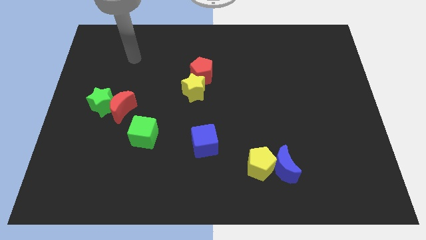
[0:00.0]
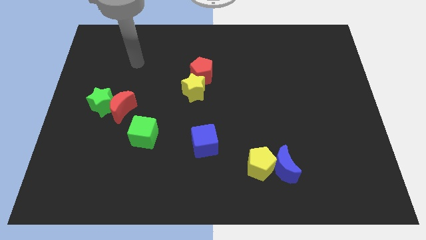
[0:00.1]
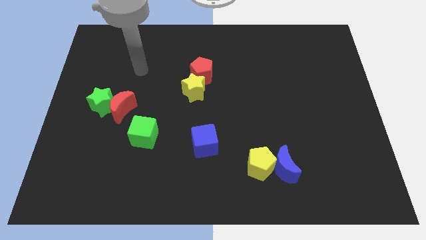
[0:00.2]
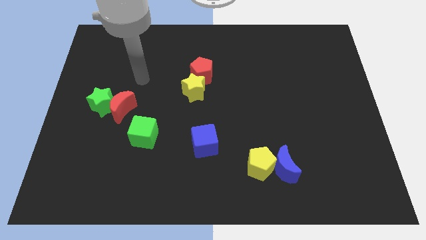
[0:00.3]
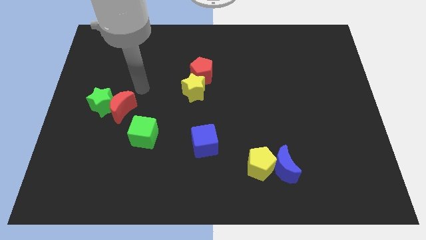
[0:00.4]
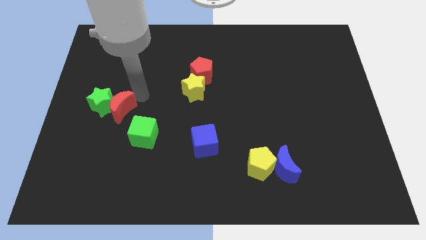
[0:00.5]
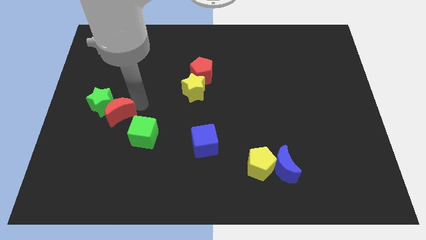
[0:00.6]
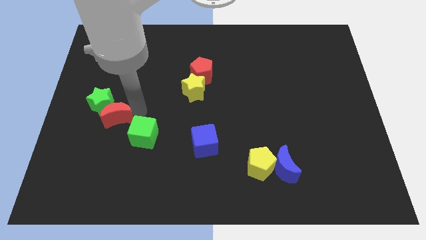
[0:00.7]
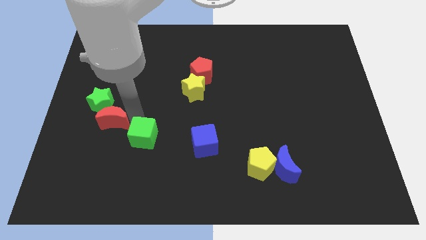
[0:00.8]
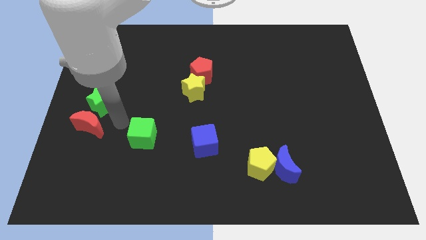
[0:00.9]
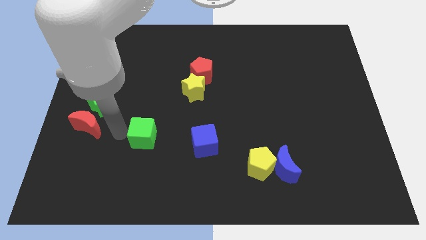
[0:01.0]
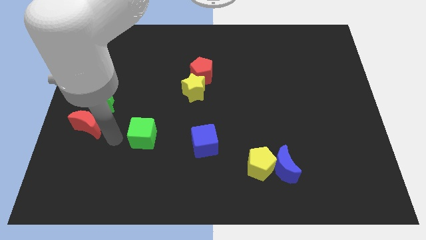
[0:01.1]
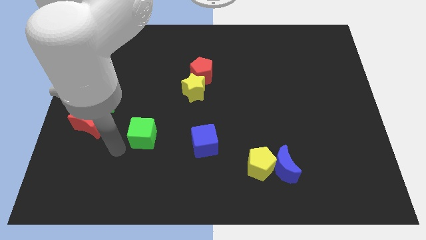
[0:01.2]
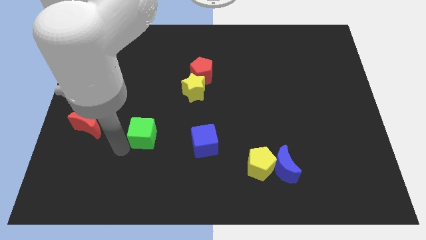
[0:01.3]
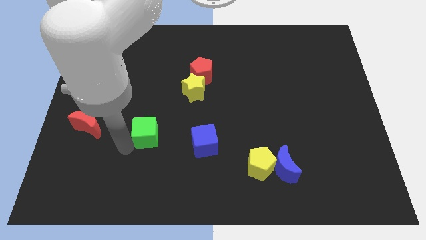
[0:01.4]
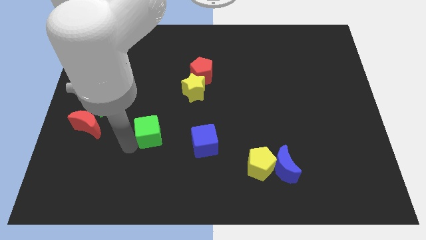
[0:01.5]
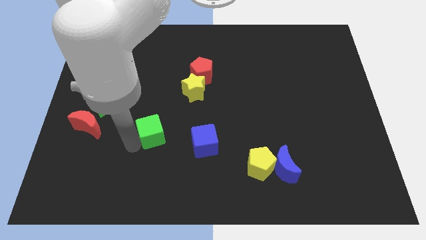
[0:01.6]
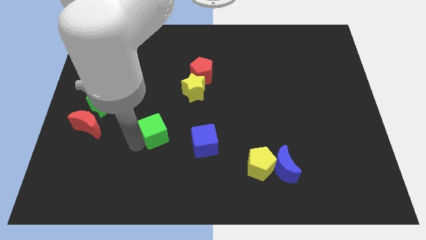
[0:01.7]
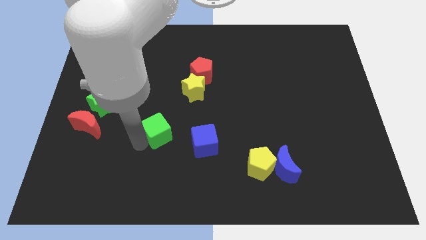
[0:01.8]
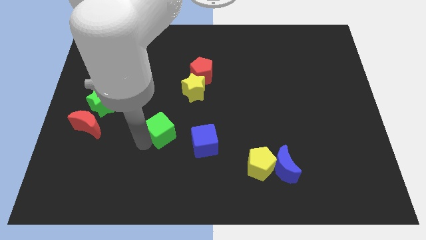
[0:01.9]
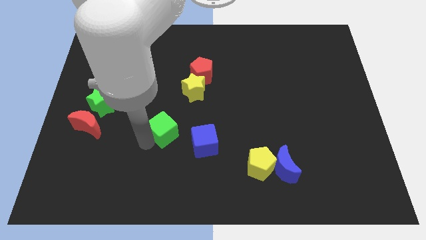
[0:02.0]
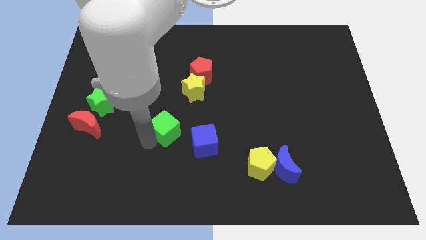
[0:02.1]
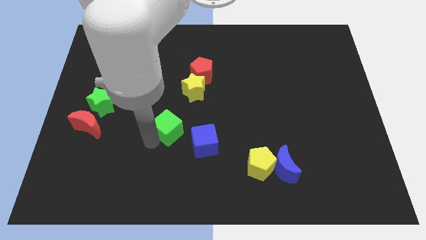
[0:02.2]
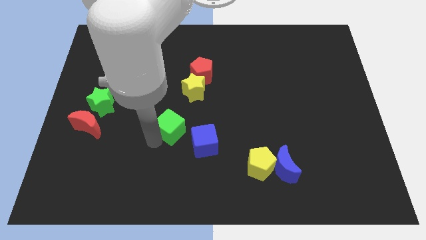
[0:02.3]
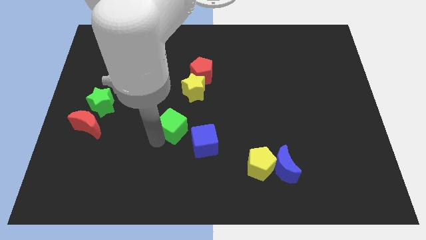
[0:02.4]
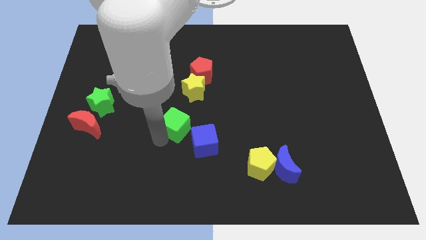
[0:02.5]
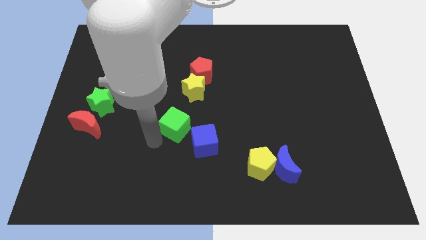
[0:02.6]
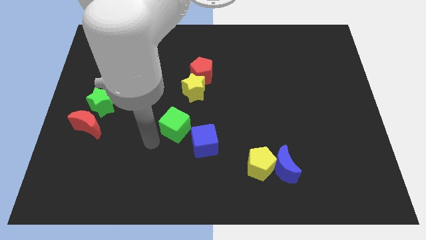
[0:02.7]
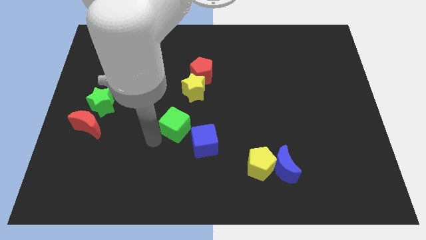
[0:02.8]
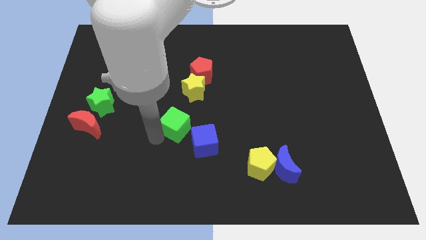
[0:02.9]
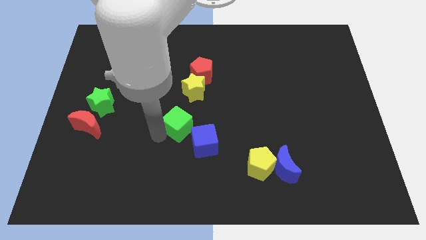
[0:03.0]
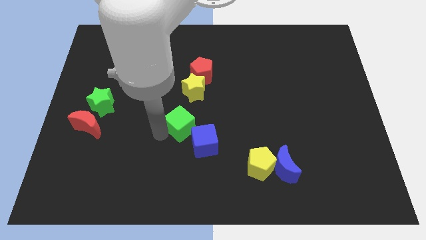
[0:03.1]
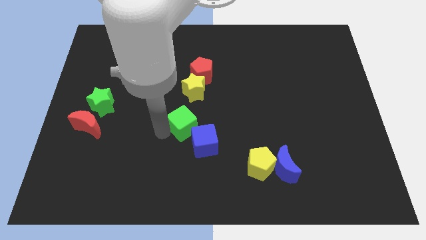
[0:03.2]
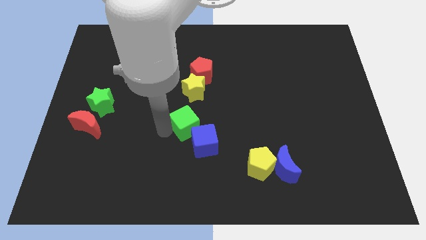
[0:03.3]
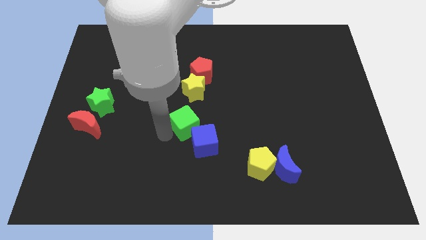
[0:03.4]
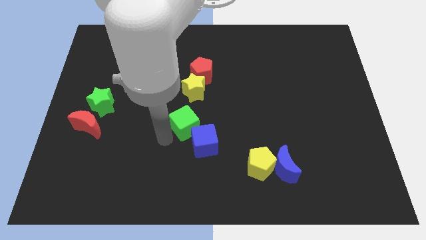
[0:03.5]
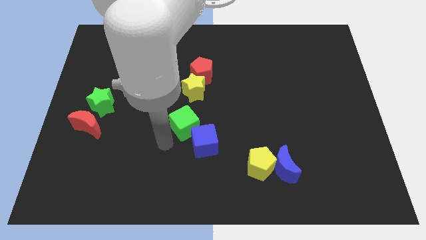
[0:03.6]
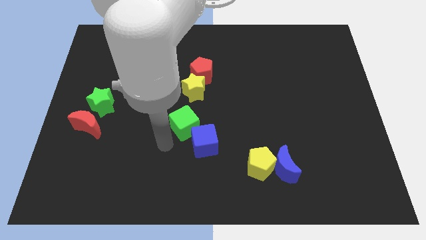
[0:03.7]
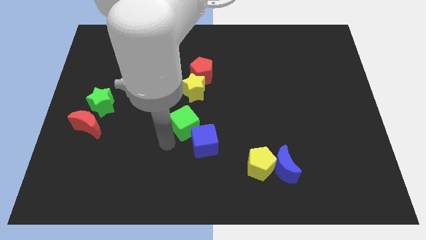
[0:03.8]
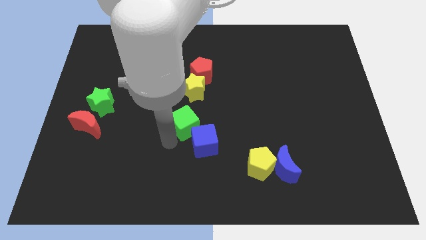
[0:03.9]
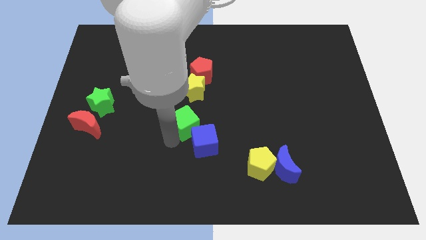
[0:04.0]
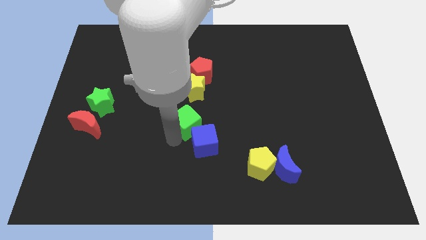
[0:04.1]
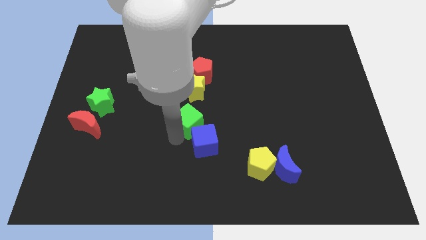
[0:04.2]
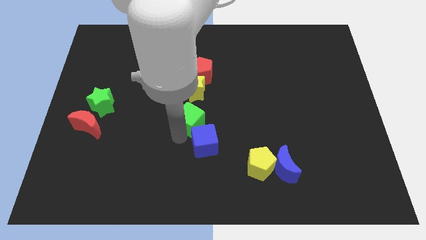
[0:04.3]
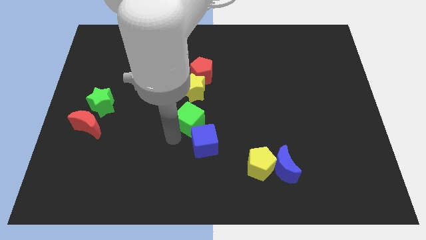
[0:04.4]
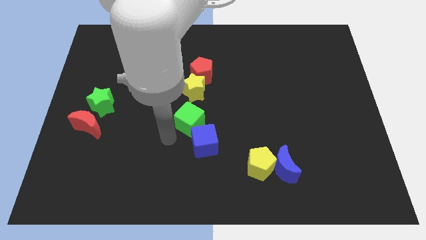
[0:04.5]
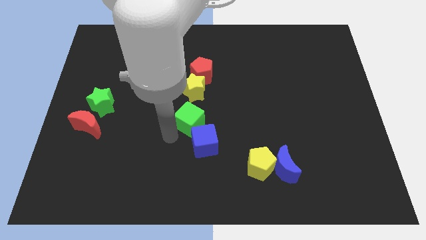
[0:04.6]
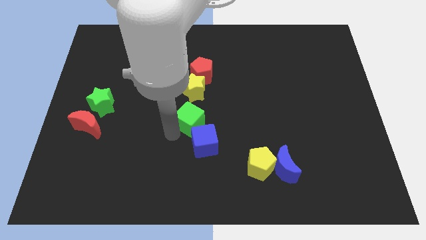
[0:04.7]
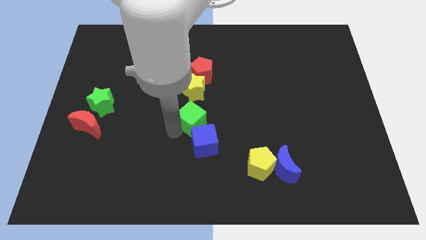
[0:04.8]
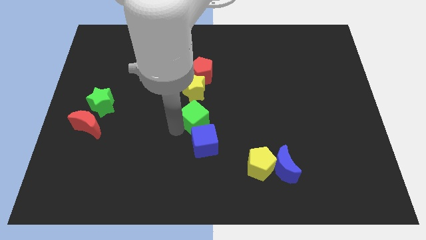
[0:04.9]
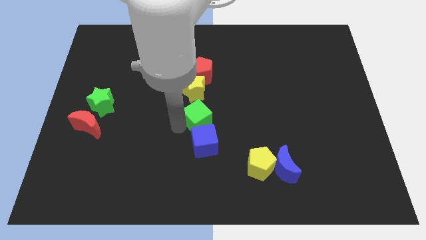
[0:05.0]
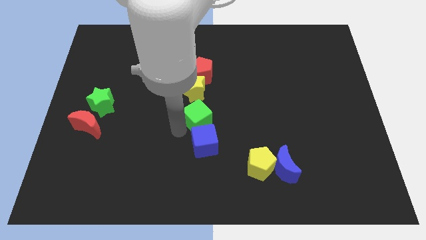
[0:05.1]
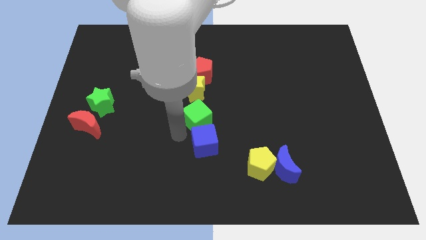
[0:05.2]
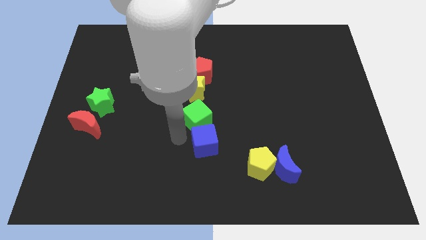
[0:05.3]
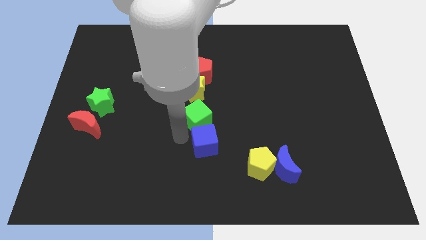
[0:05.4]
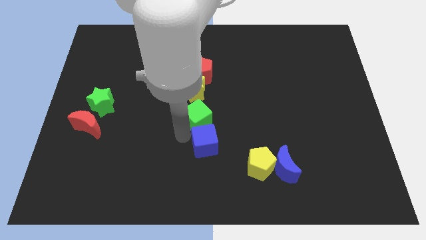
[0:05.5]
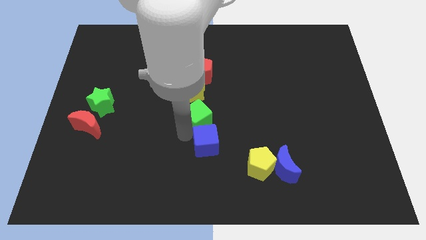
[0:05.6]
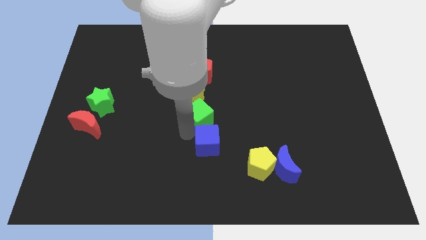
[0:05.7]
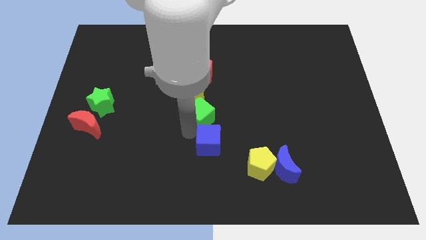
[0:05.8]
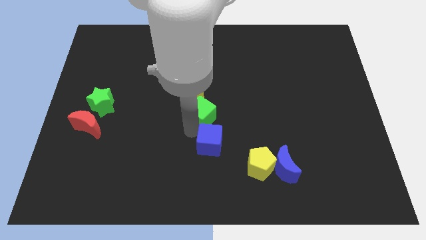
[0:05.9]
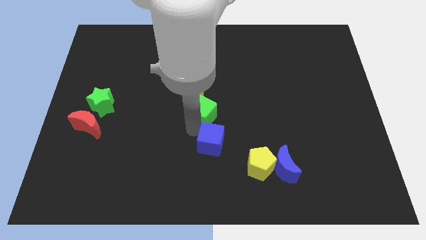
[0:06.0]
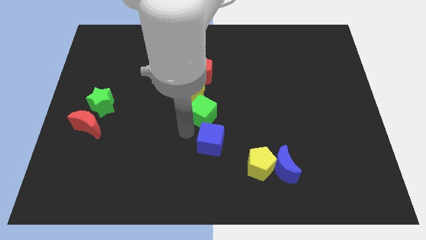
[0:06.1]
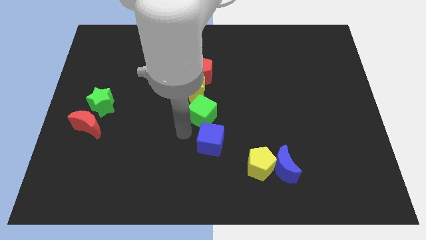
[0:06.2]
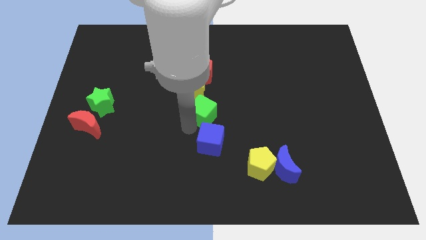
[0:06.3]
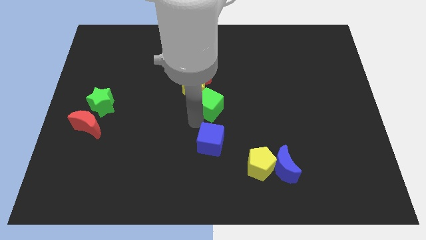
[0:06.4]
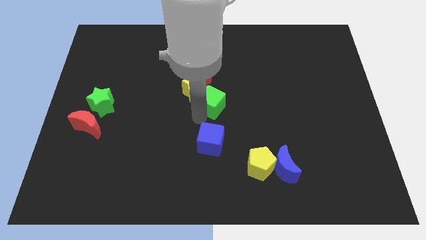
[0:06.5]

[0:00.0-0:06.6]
push the green cube to the right side of the yellow star

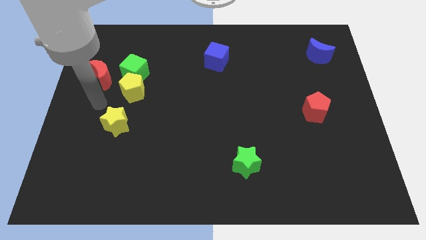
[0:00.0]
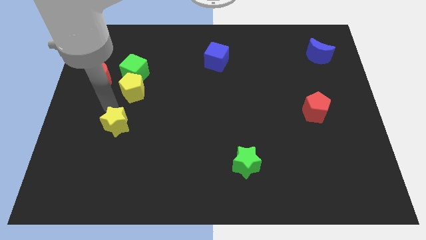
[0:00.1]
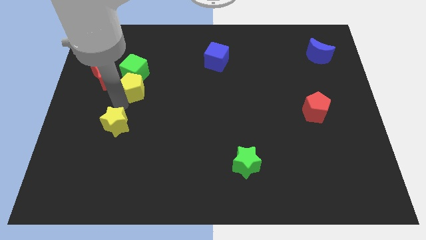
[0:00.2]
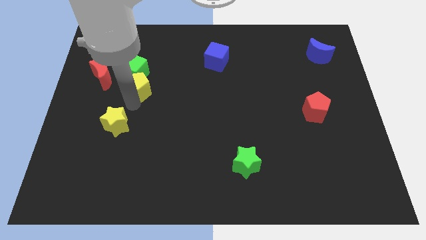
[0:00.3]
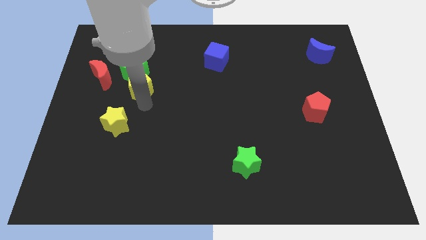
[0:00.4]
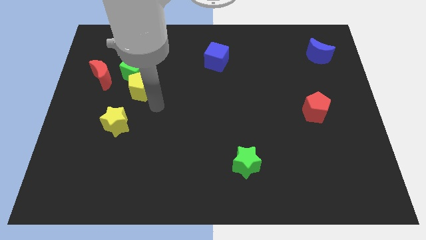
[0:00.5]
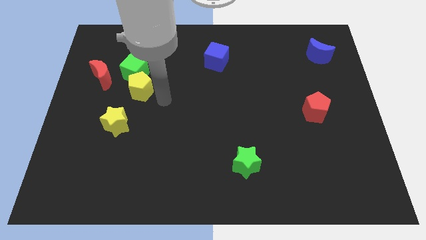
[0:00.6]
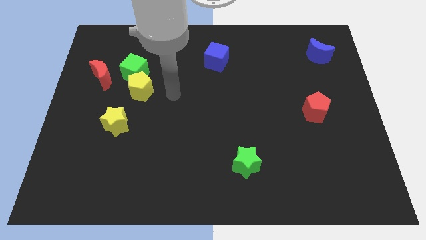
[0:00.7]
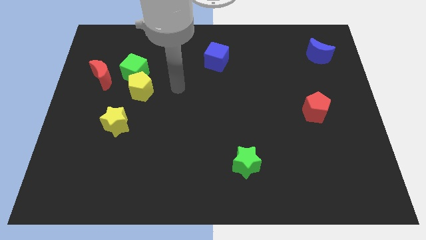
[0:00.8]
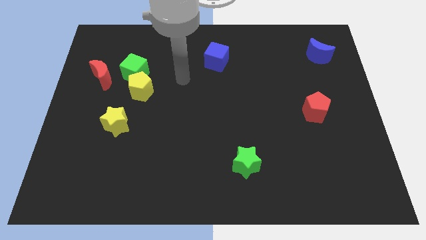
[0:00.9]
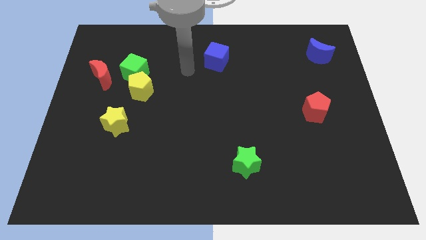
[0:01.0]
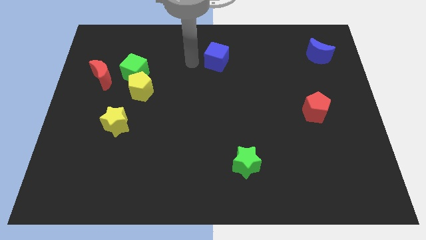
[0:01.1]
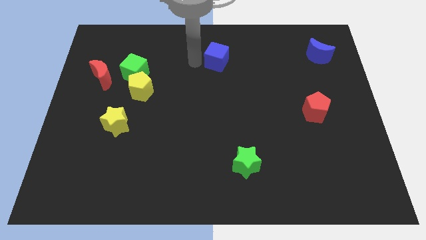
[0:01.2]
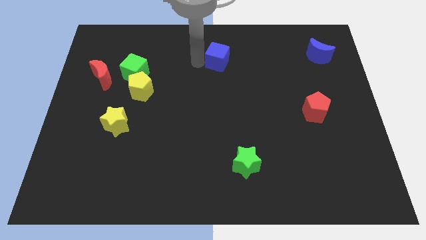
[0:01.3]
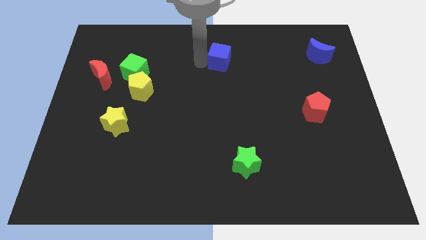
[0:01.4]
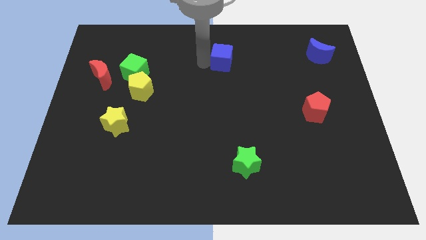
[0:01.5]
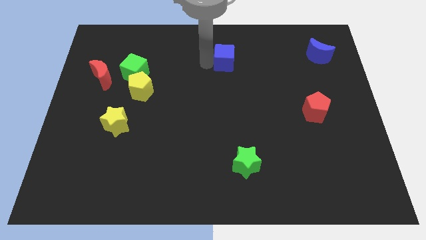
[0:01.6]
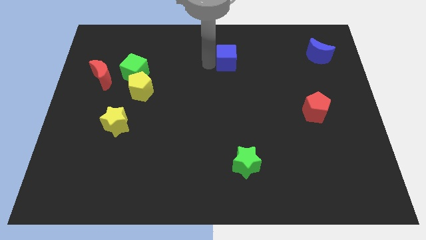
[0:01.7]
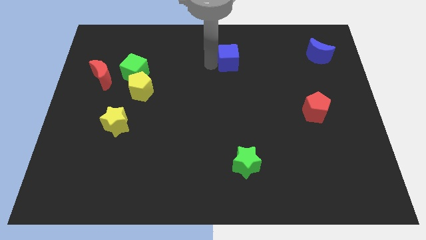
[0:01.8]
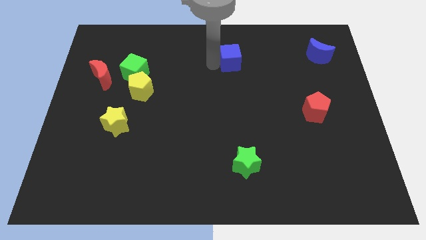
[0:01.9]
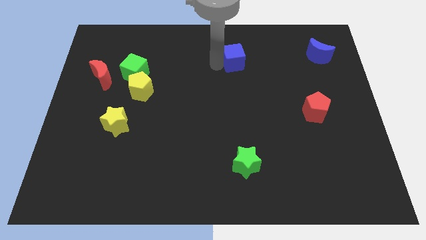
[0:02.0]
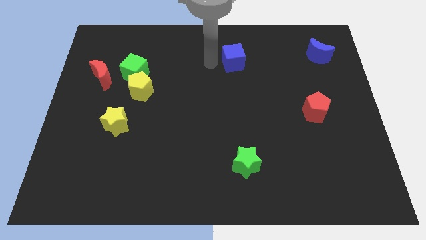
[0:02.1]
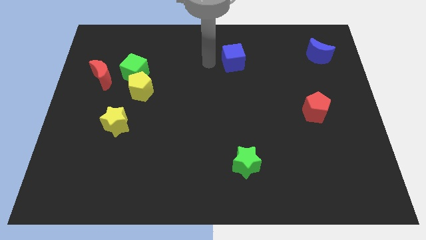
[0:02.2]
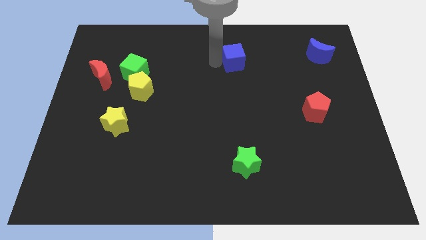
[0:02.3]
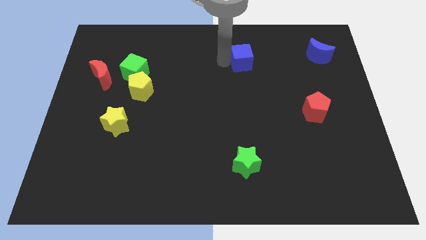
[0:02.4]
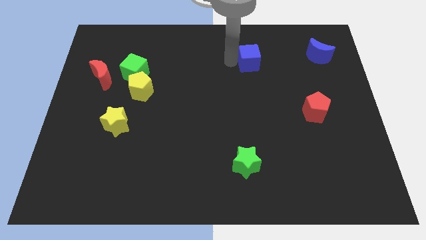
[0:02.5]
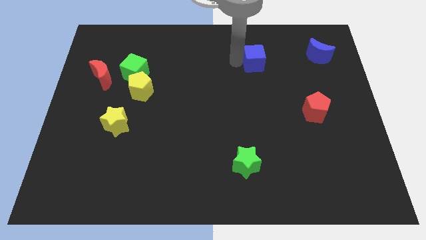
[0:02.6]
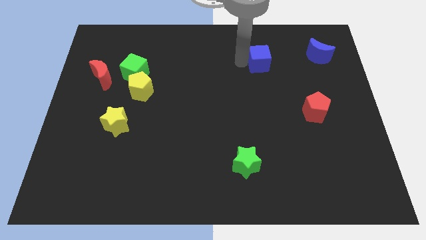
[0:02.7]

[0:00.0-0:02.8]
push the blue cube to the left of the blue moon
